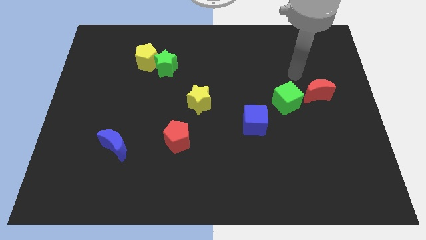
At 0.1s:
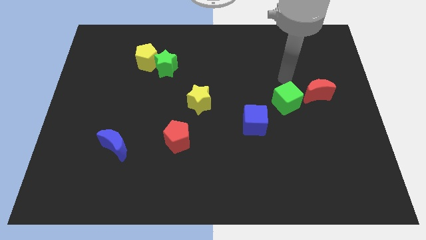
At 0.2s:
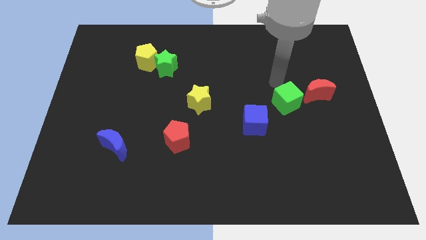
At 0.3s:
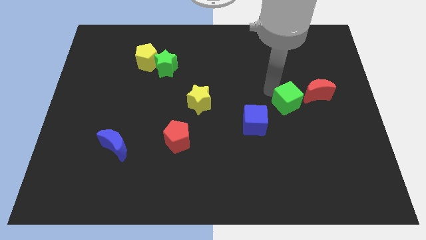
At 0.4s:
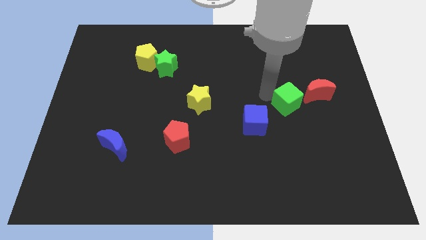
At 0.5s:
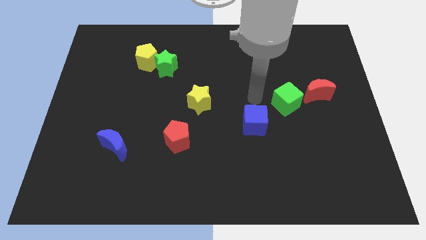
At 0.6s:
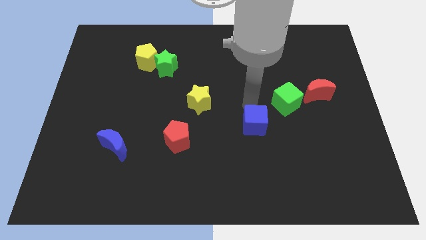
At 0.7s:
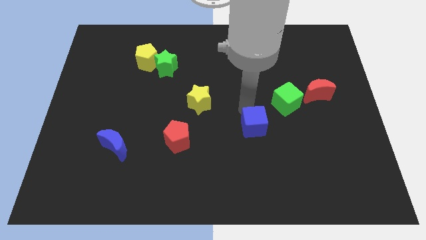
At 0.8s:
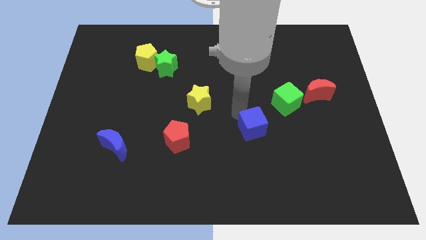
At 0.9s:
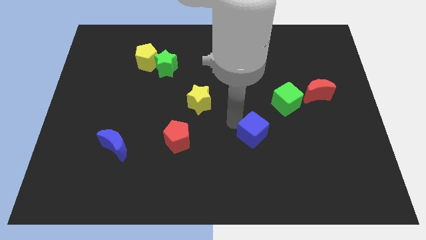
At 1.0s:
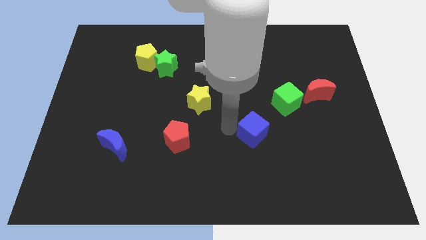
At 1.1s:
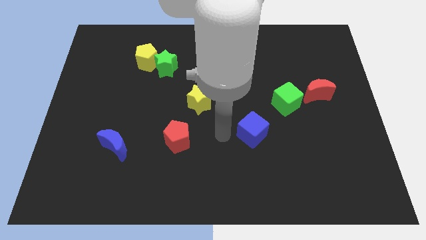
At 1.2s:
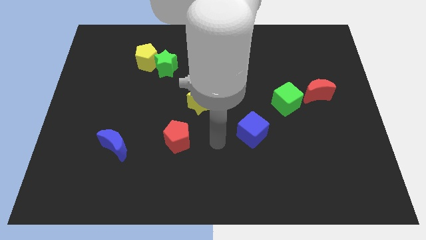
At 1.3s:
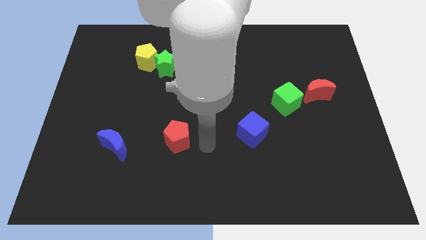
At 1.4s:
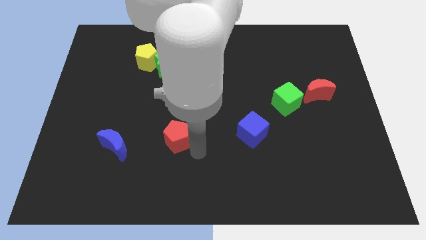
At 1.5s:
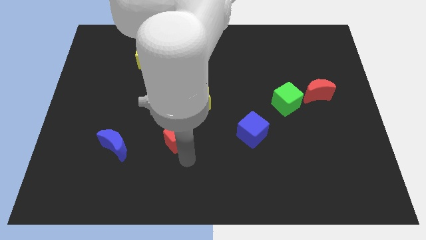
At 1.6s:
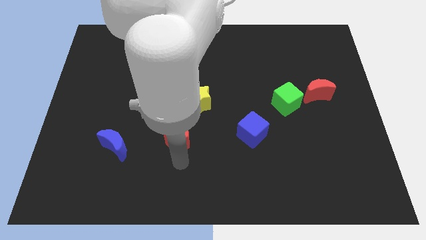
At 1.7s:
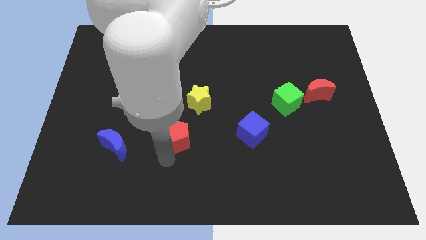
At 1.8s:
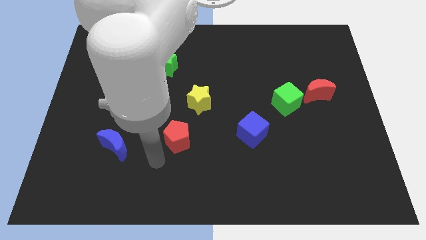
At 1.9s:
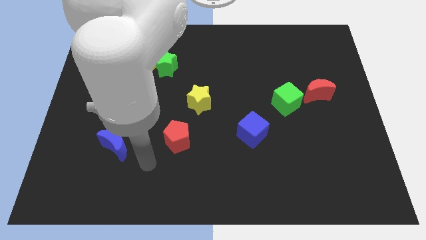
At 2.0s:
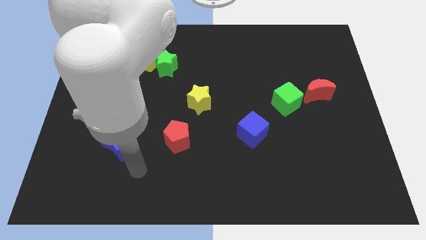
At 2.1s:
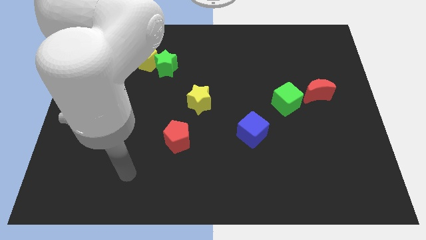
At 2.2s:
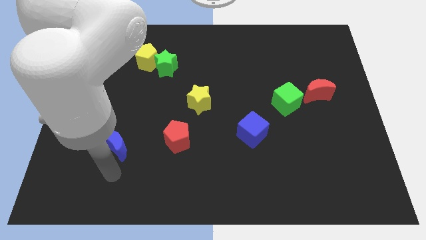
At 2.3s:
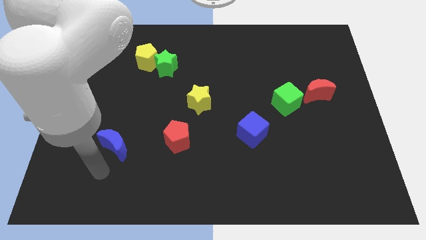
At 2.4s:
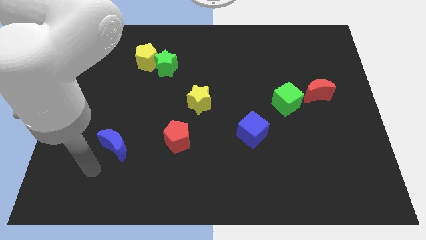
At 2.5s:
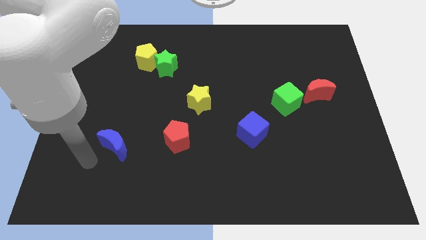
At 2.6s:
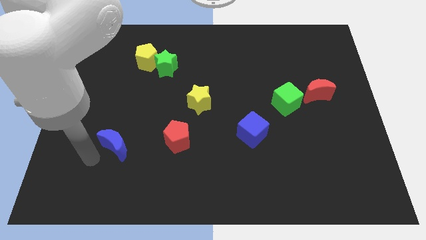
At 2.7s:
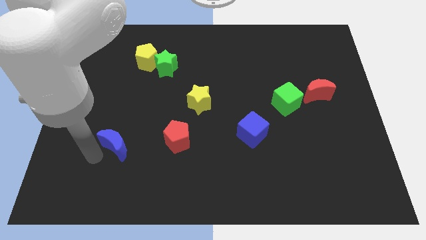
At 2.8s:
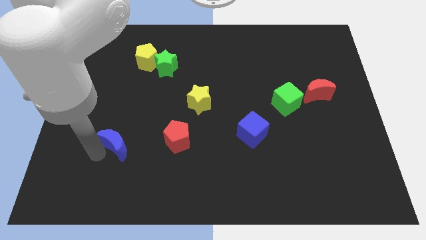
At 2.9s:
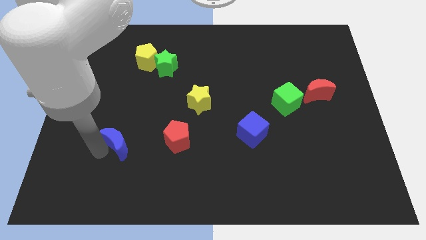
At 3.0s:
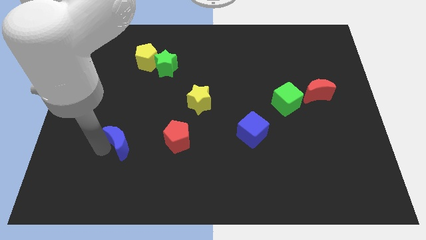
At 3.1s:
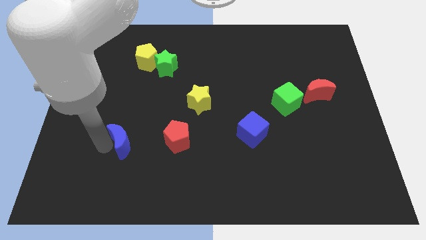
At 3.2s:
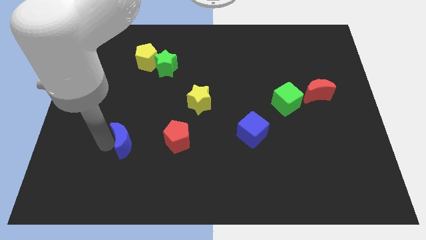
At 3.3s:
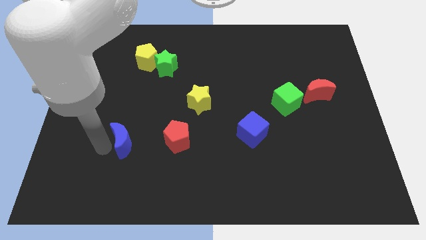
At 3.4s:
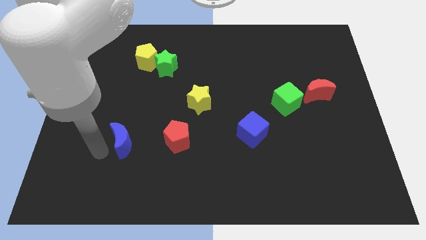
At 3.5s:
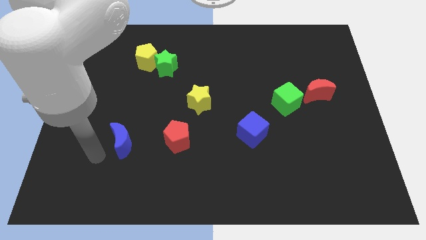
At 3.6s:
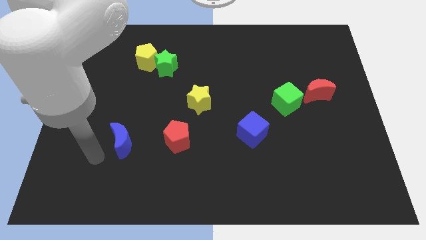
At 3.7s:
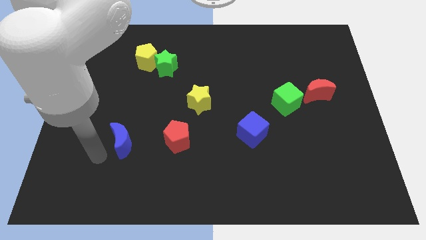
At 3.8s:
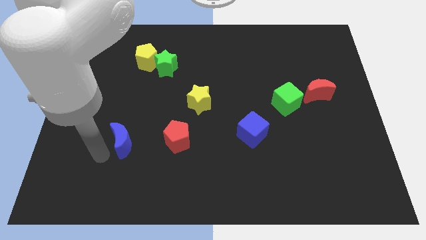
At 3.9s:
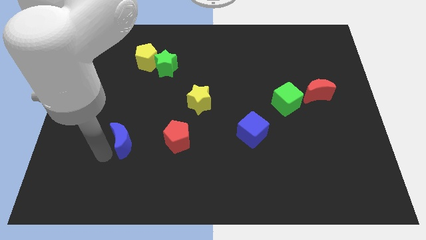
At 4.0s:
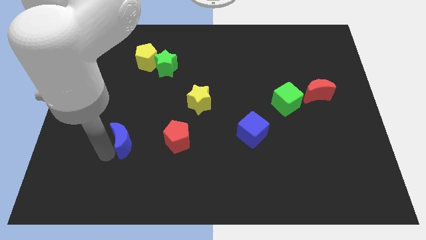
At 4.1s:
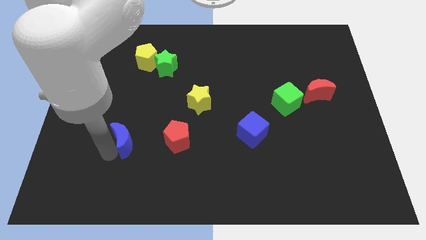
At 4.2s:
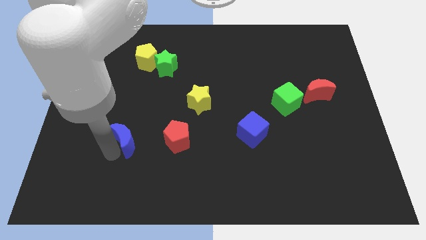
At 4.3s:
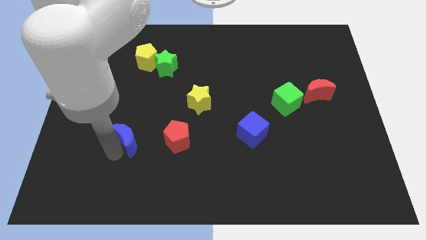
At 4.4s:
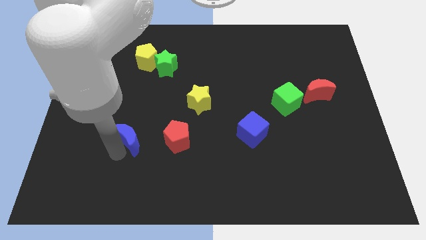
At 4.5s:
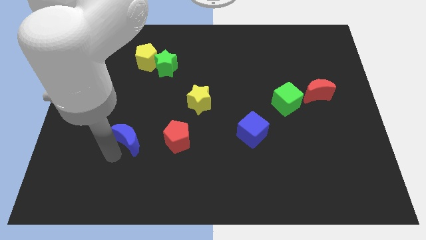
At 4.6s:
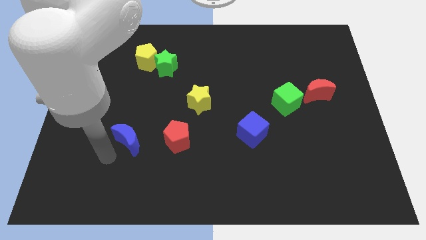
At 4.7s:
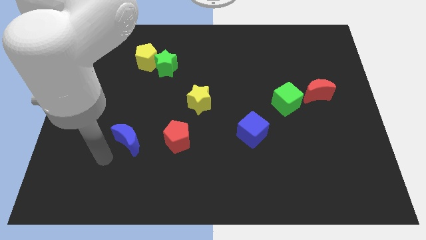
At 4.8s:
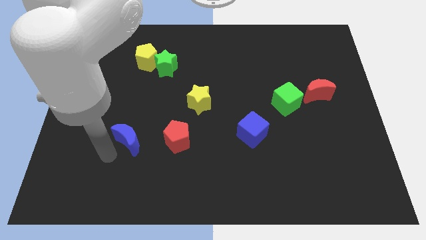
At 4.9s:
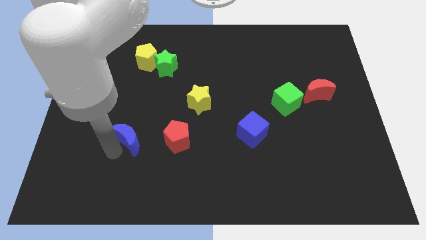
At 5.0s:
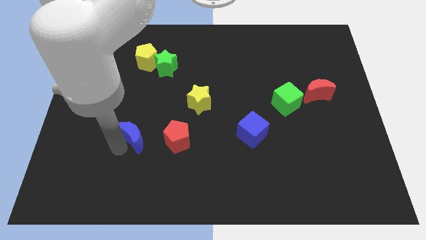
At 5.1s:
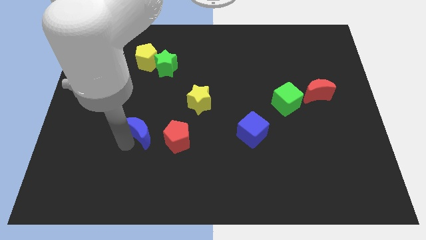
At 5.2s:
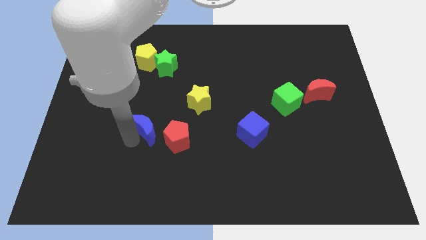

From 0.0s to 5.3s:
slightly slide the blue moon upwards and then right

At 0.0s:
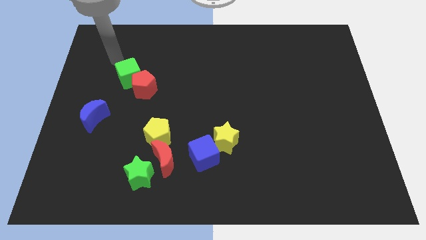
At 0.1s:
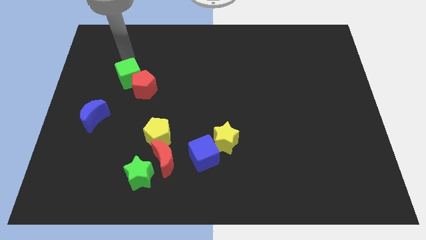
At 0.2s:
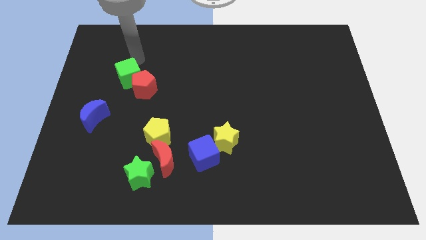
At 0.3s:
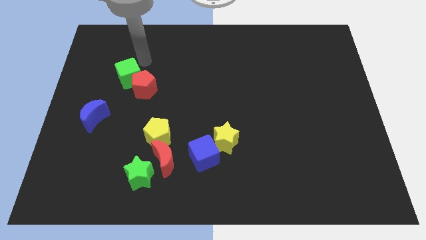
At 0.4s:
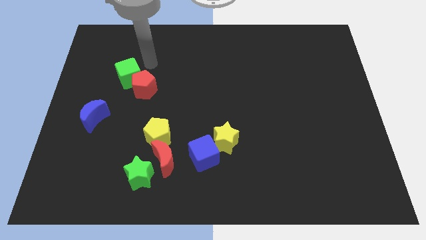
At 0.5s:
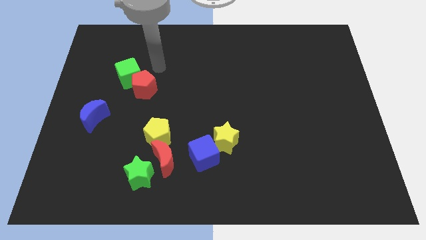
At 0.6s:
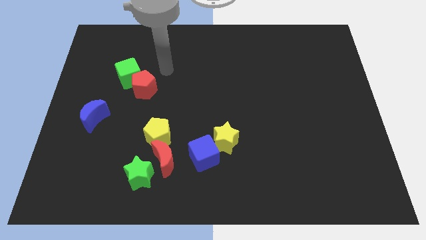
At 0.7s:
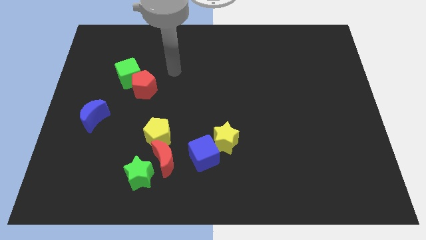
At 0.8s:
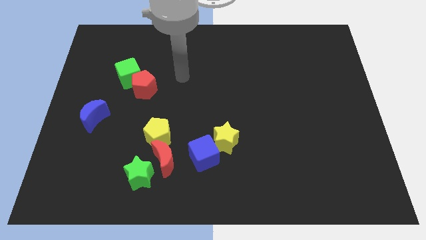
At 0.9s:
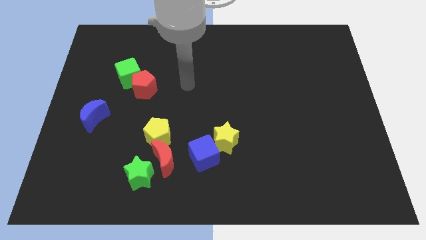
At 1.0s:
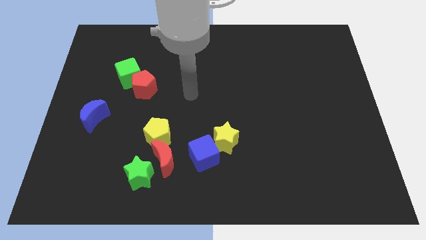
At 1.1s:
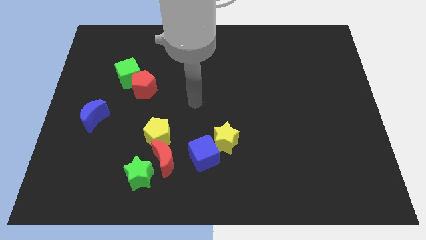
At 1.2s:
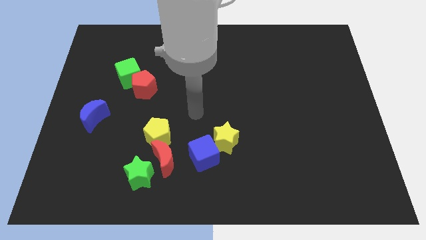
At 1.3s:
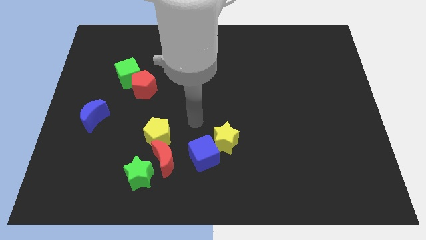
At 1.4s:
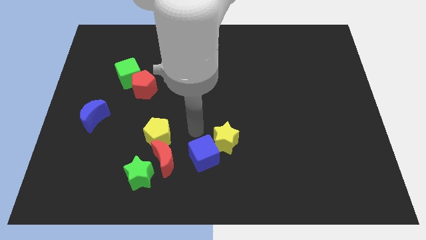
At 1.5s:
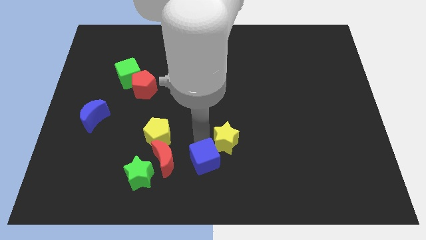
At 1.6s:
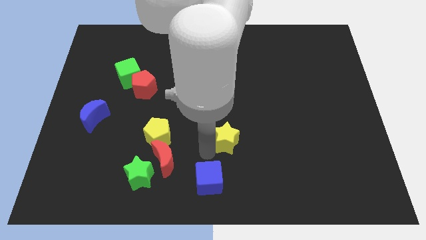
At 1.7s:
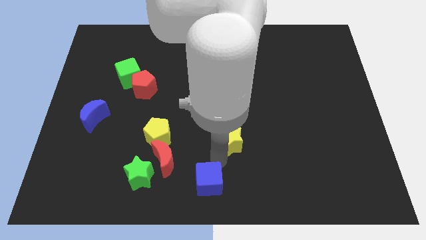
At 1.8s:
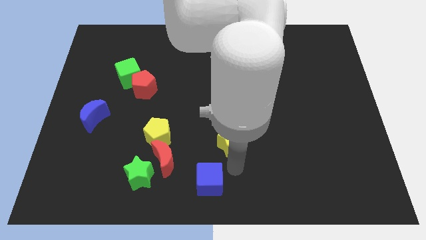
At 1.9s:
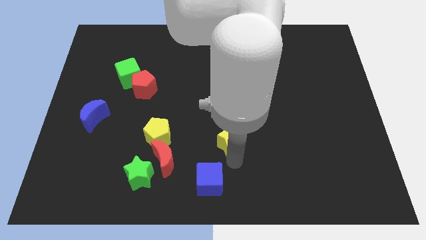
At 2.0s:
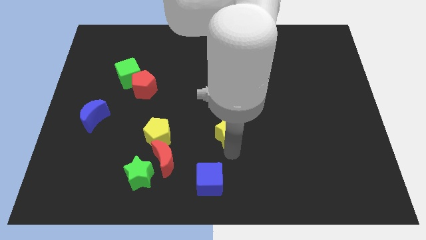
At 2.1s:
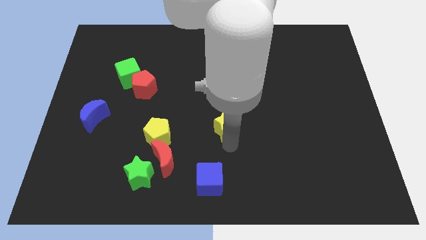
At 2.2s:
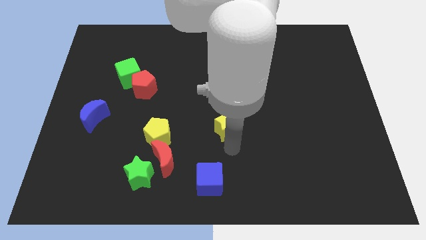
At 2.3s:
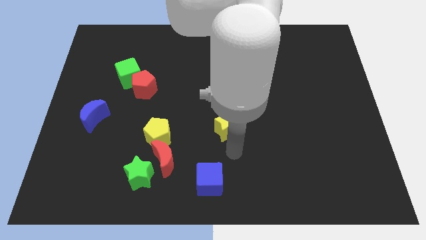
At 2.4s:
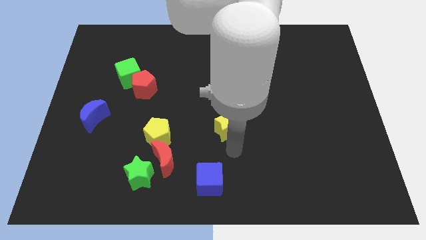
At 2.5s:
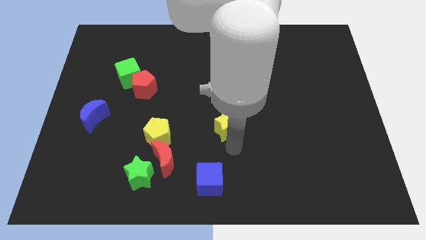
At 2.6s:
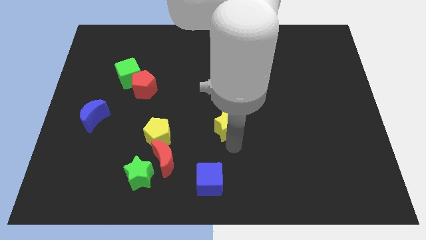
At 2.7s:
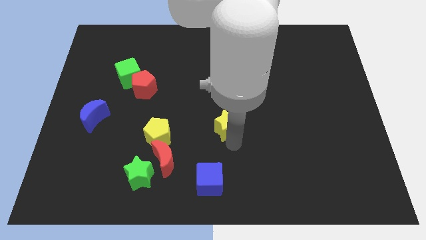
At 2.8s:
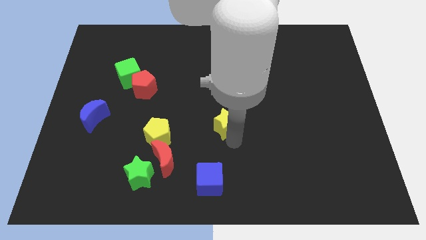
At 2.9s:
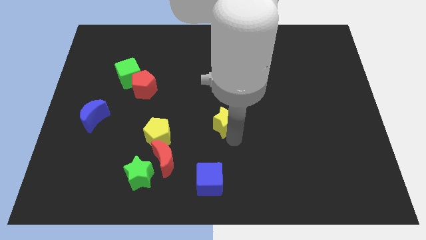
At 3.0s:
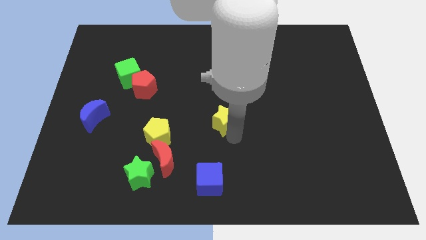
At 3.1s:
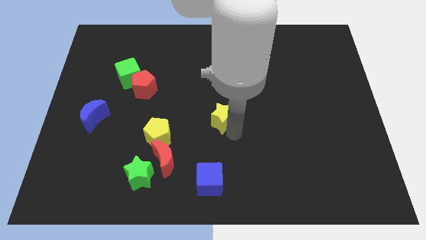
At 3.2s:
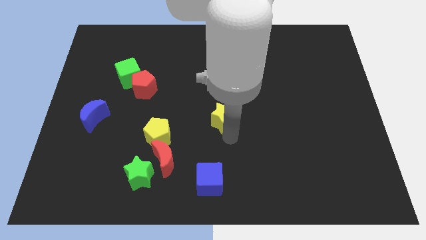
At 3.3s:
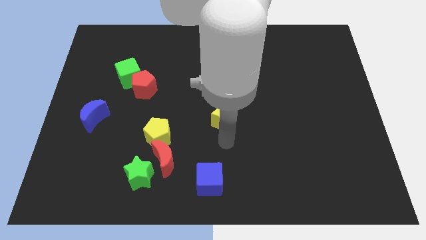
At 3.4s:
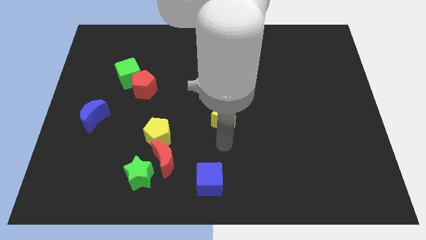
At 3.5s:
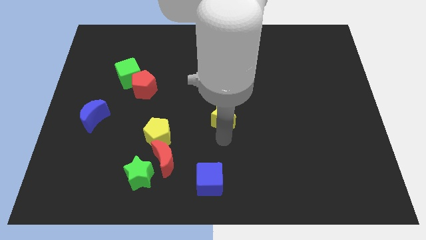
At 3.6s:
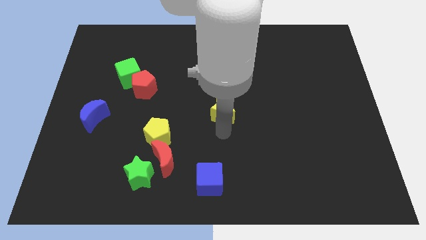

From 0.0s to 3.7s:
slightly slide the yellow star up
